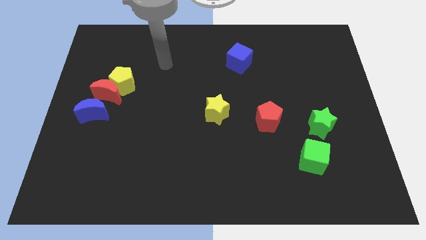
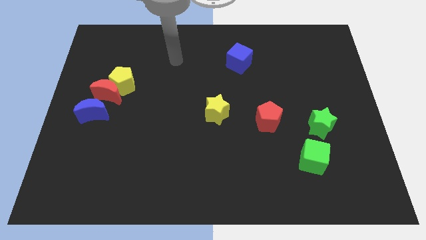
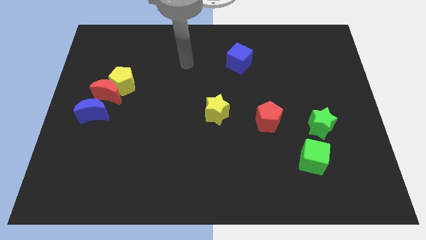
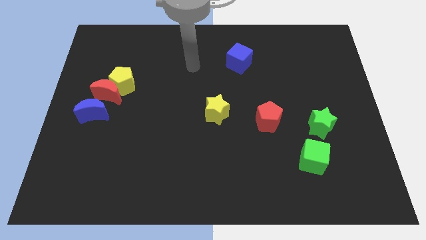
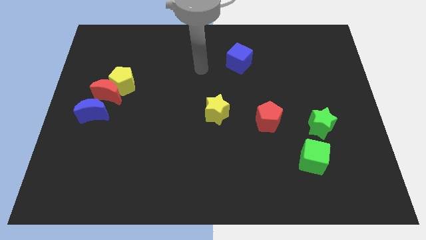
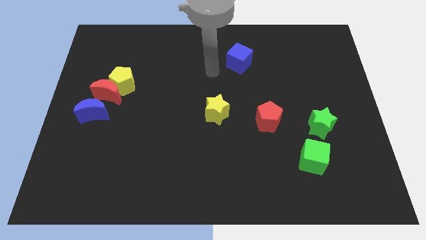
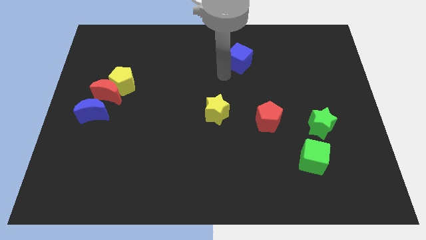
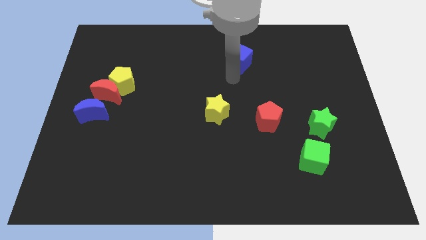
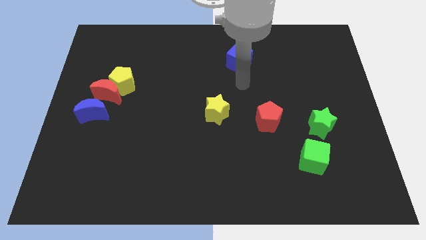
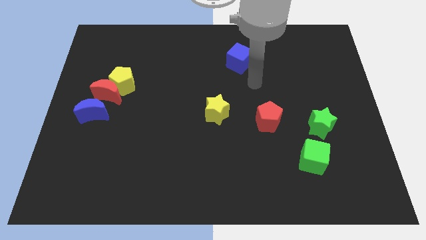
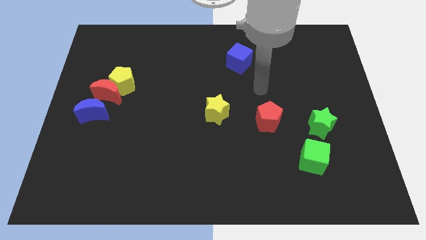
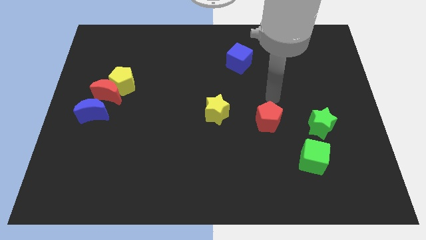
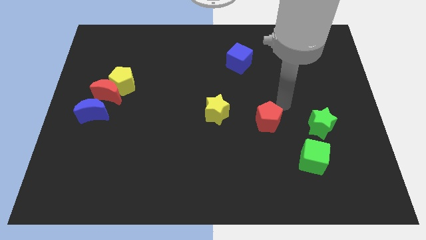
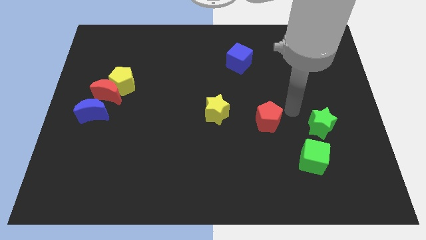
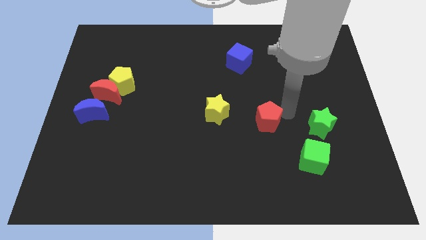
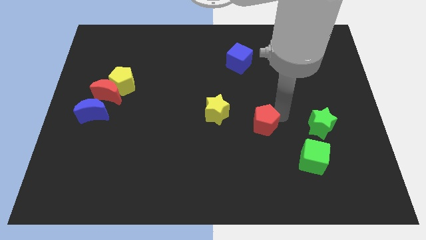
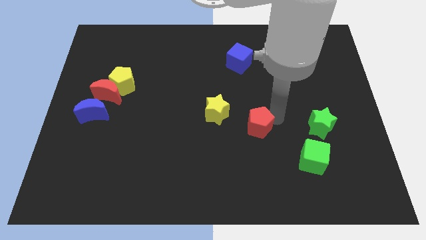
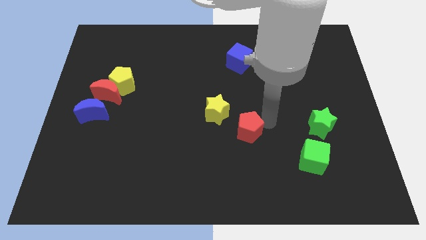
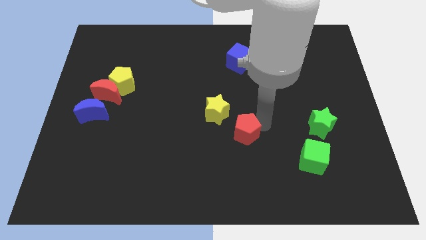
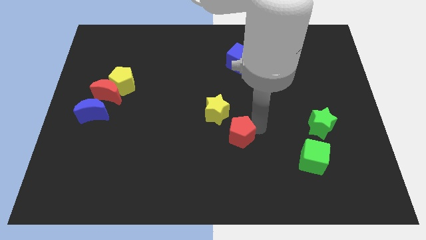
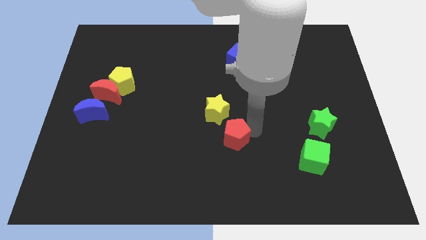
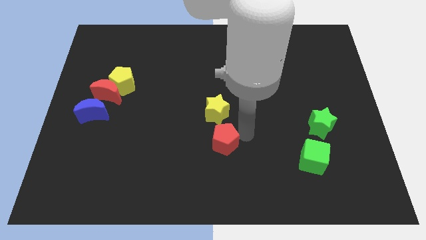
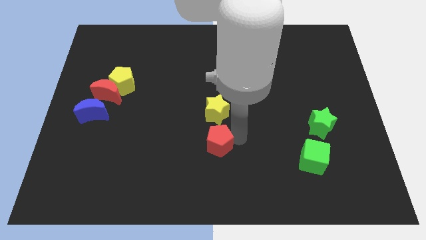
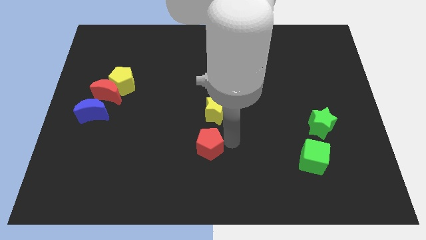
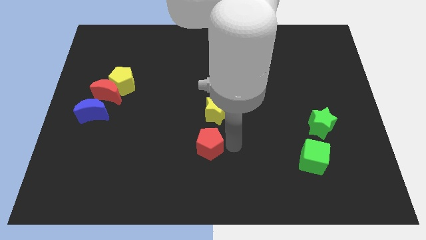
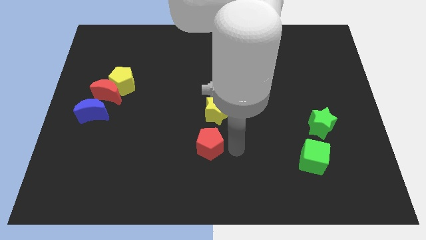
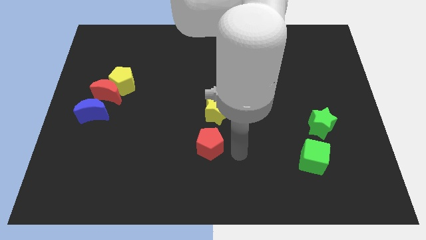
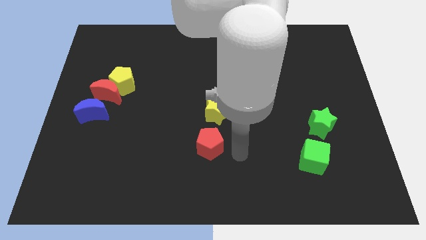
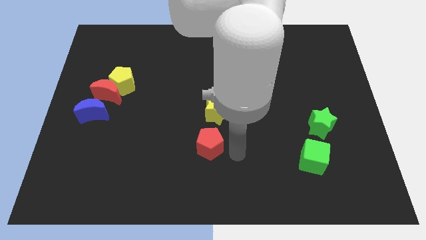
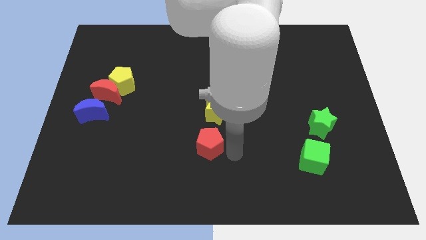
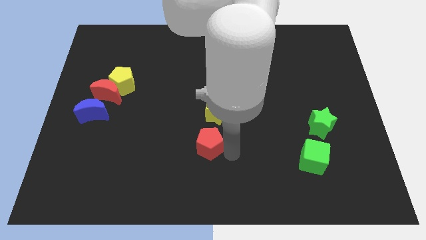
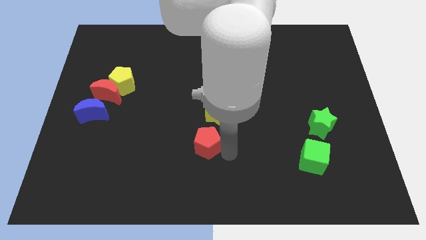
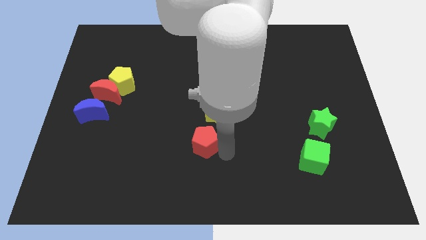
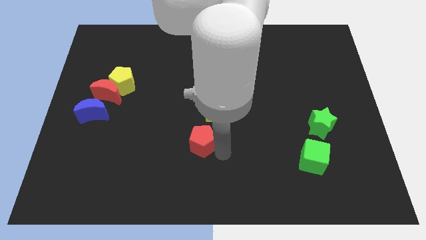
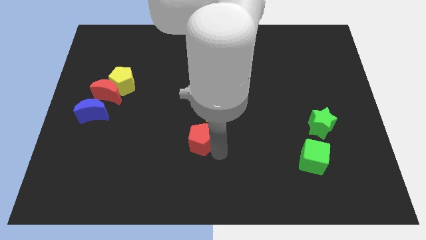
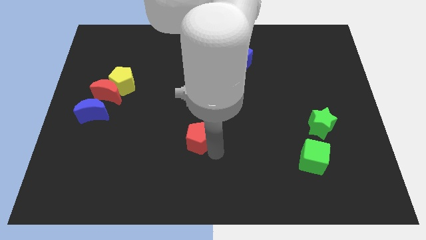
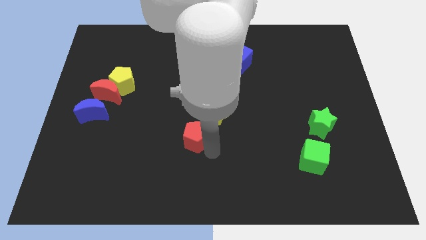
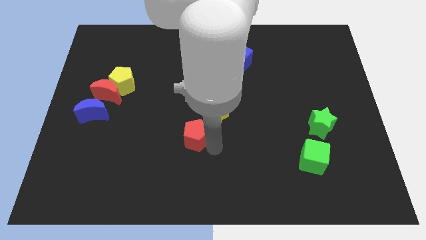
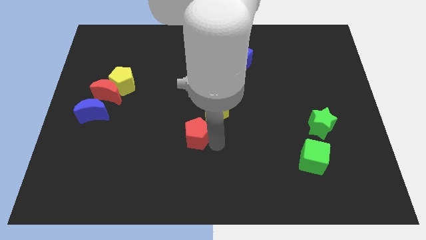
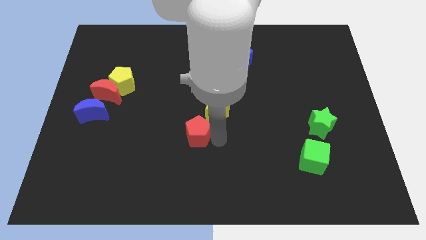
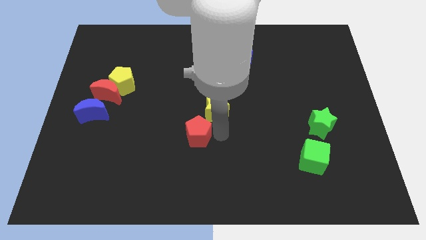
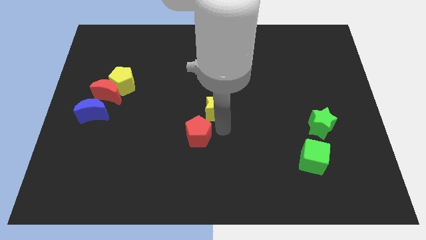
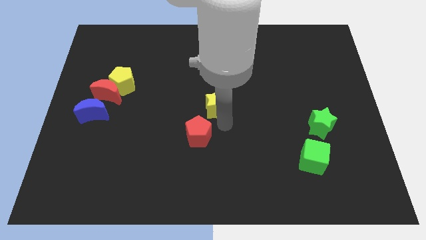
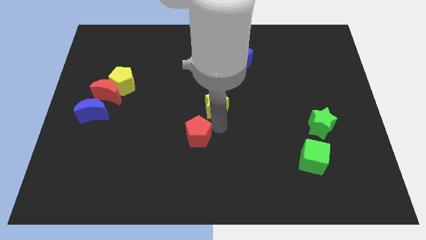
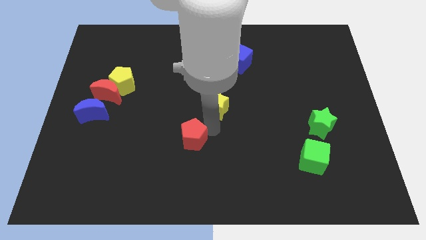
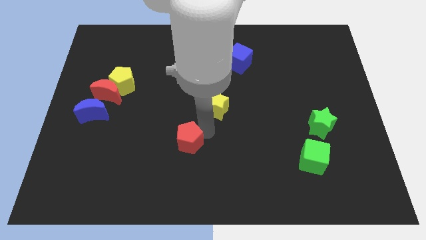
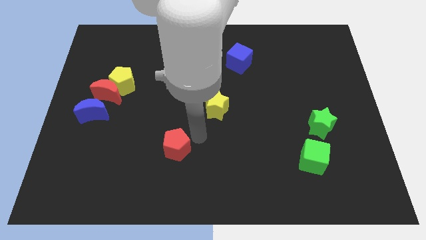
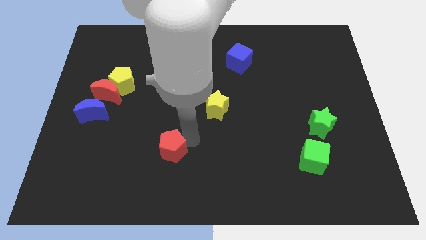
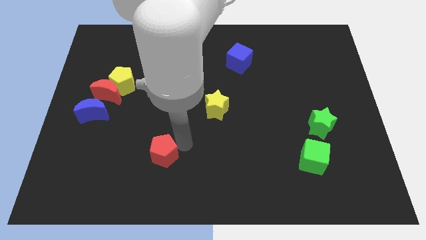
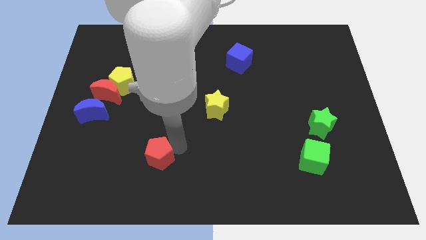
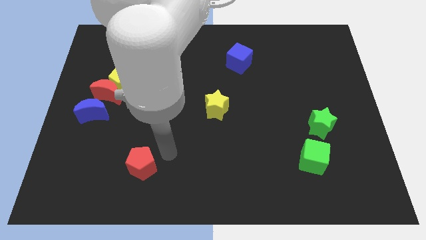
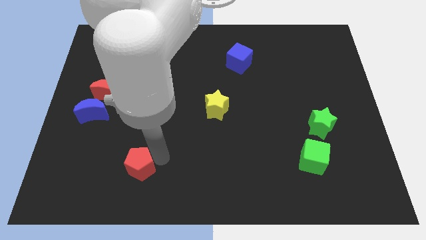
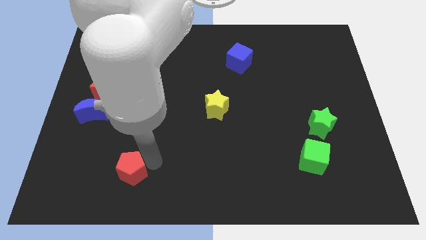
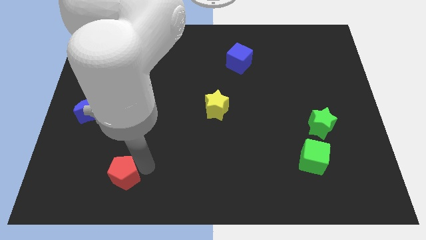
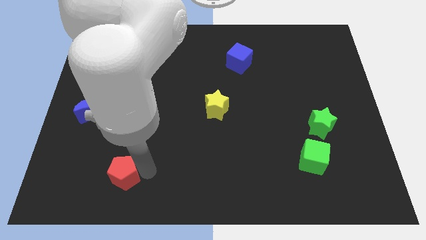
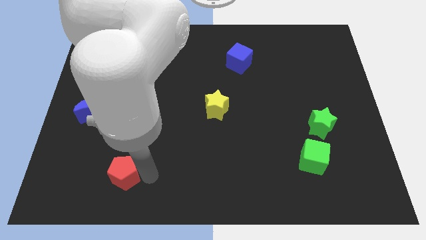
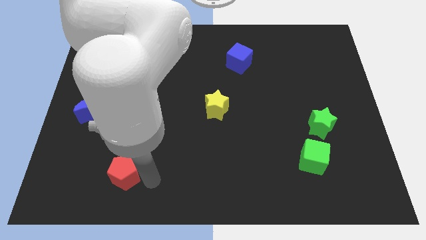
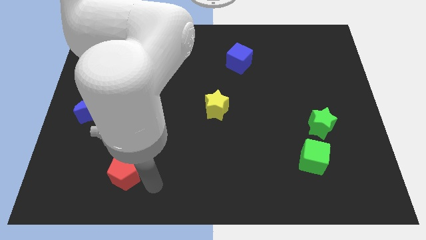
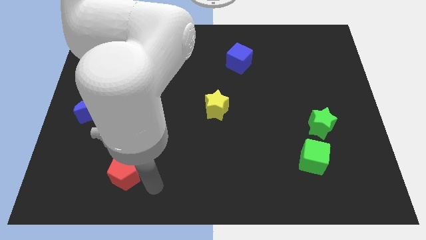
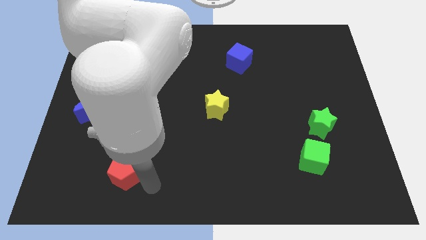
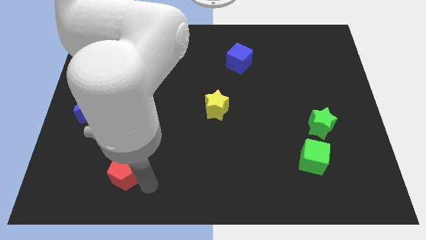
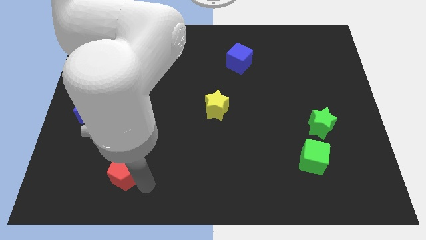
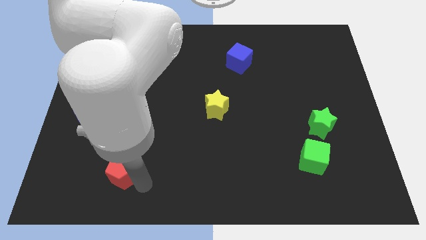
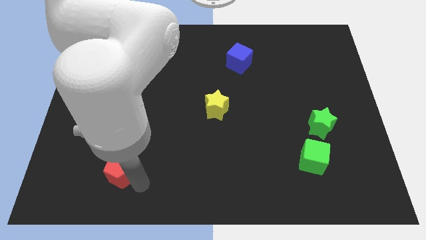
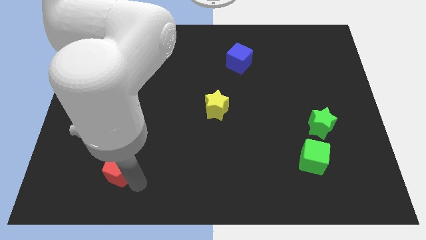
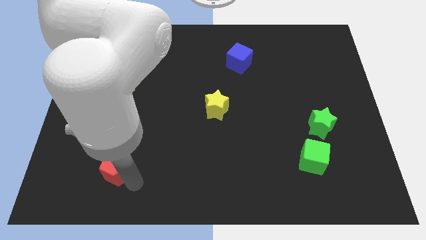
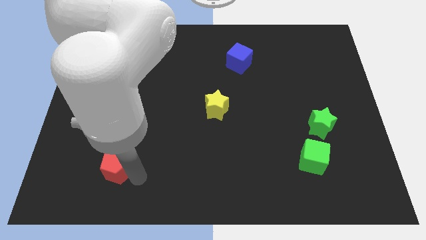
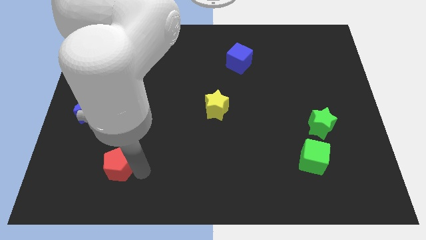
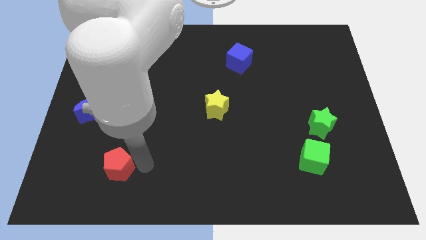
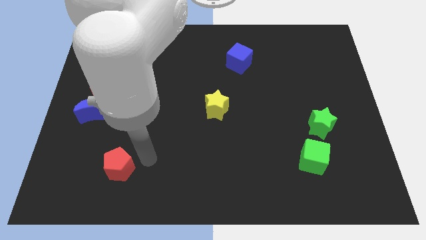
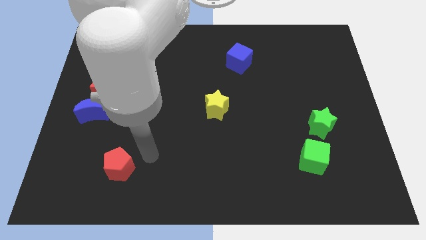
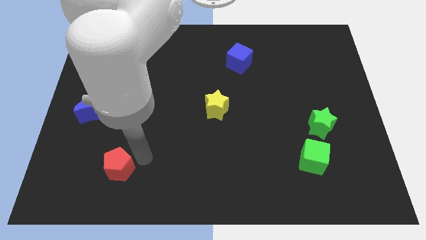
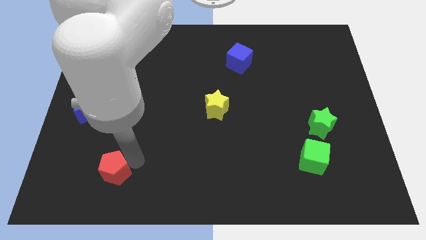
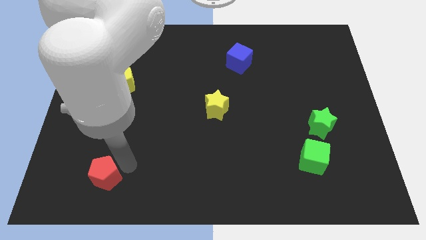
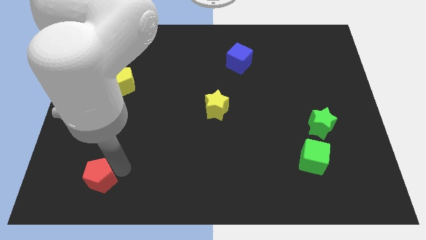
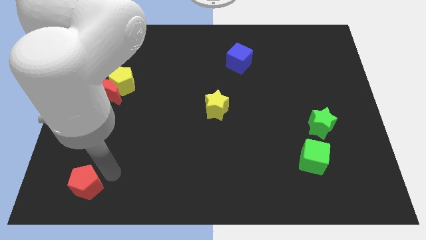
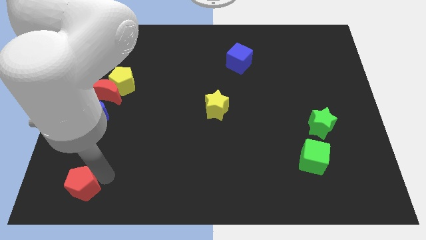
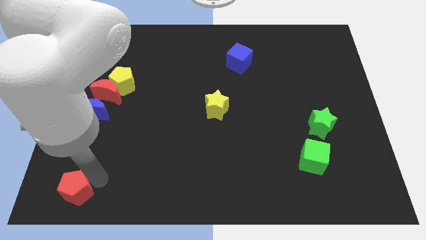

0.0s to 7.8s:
move the red pentagon to the lower left corner
